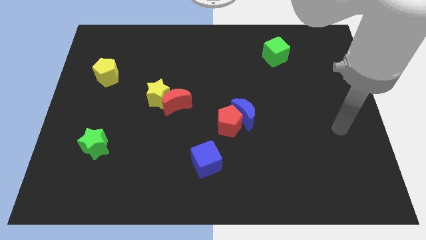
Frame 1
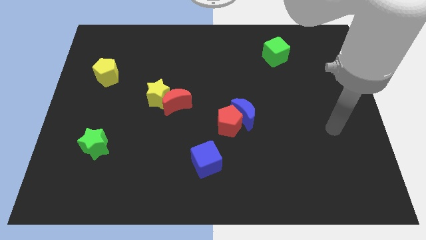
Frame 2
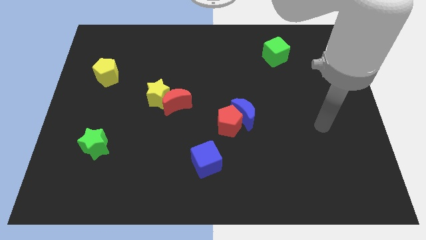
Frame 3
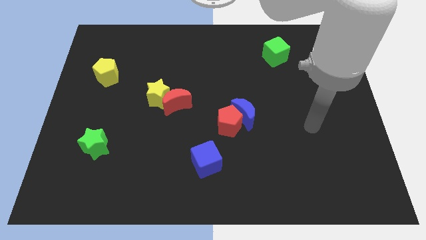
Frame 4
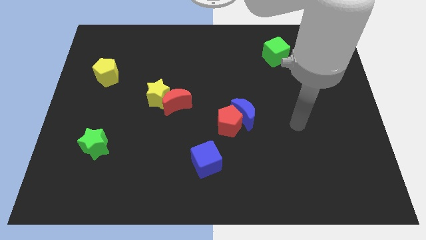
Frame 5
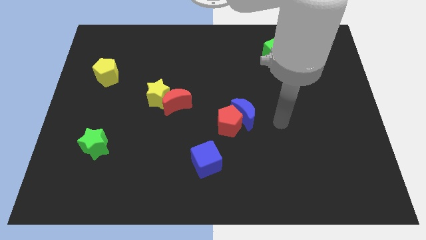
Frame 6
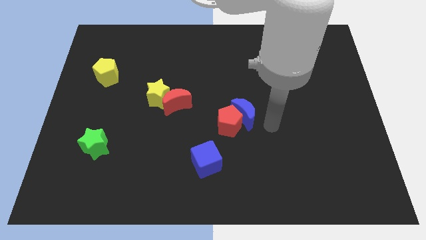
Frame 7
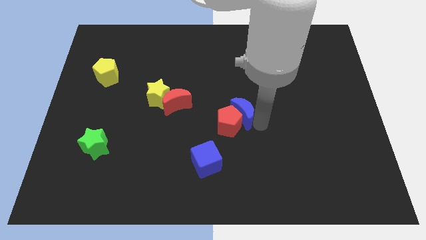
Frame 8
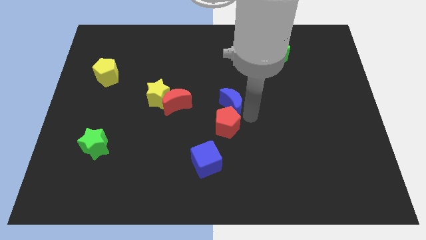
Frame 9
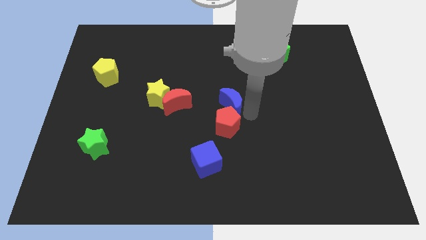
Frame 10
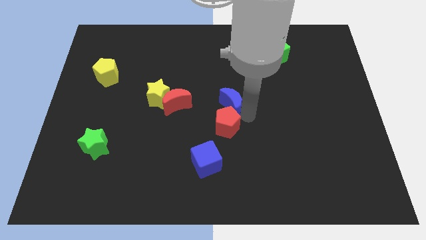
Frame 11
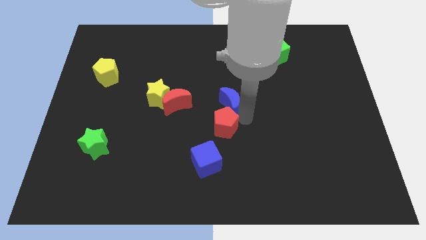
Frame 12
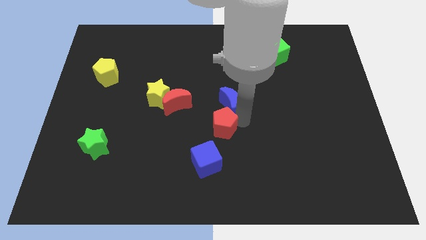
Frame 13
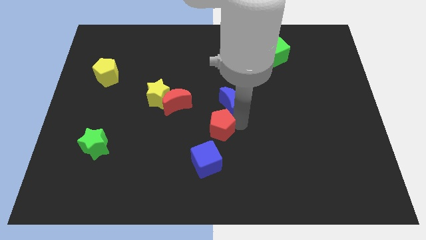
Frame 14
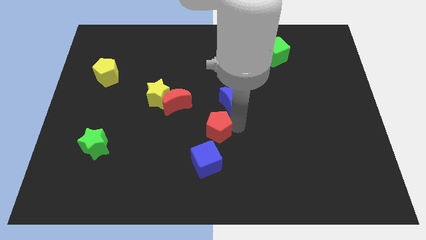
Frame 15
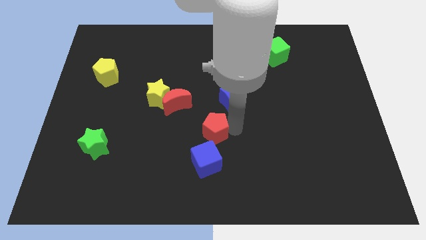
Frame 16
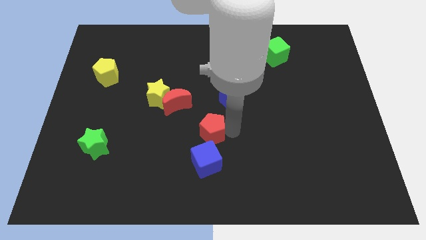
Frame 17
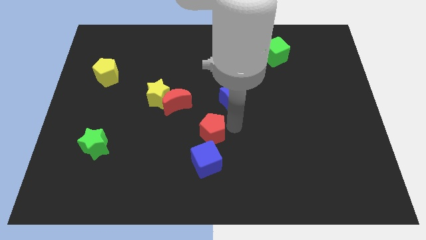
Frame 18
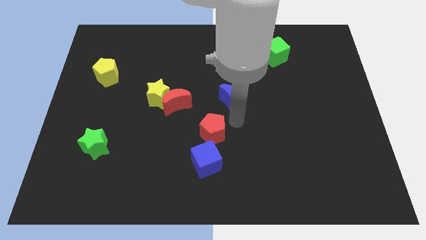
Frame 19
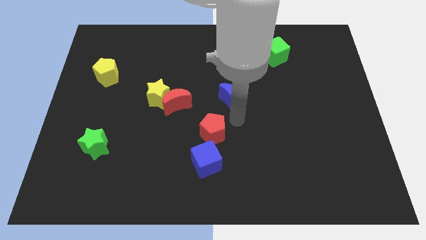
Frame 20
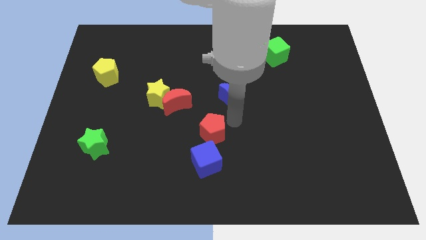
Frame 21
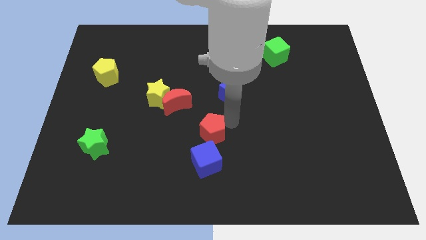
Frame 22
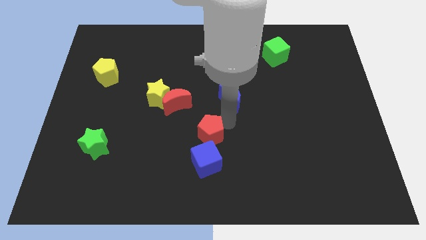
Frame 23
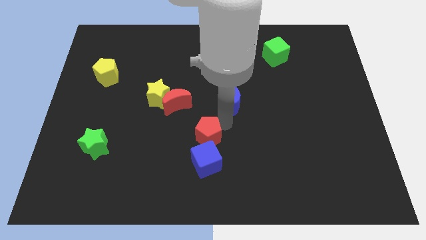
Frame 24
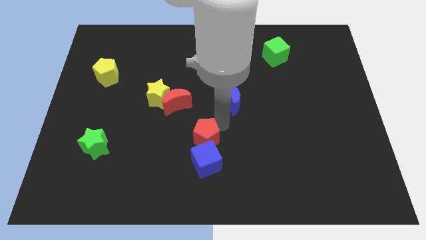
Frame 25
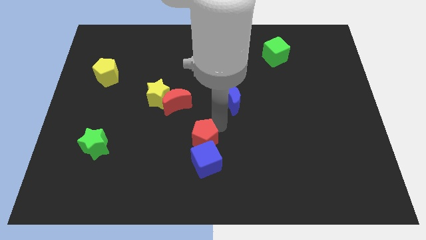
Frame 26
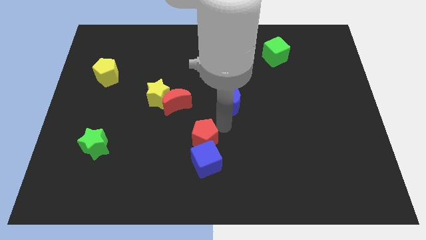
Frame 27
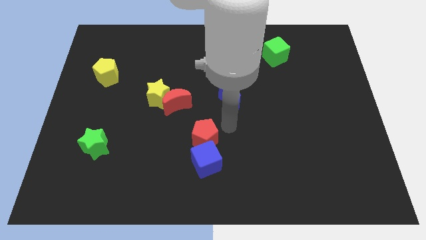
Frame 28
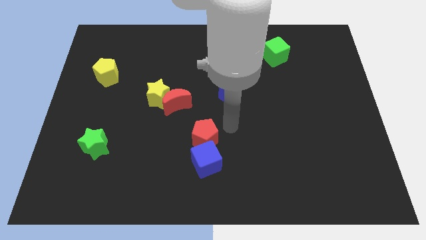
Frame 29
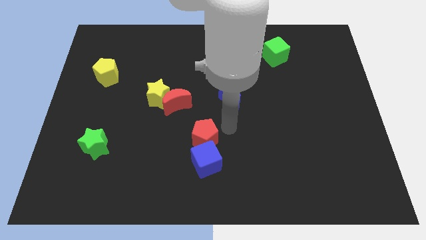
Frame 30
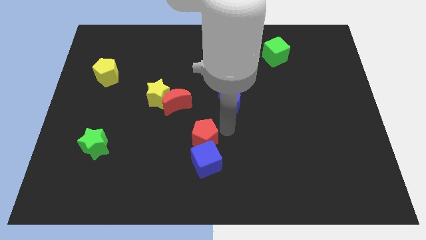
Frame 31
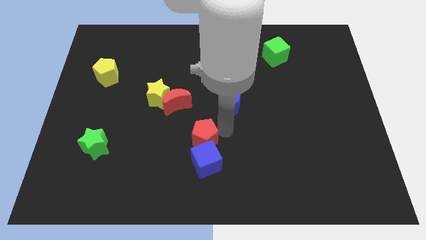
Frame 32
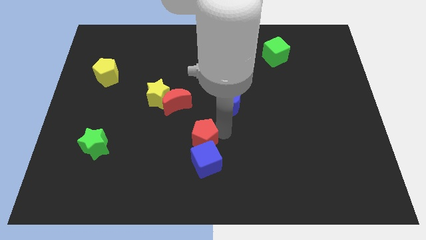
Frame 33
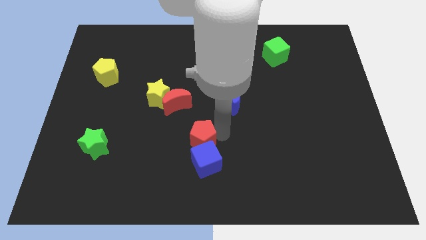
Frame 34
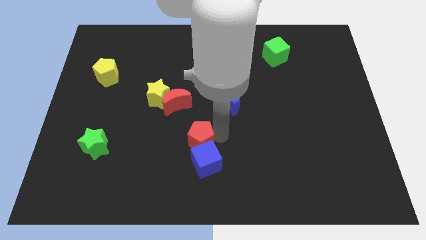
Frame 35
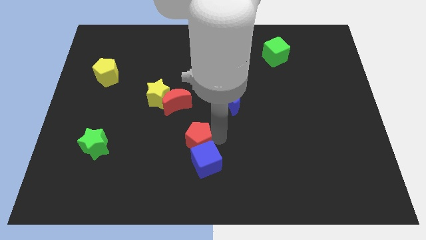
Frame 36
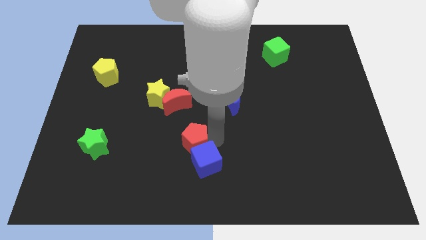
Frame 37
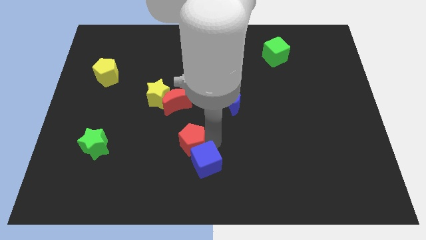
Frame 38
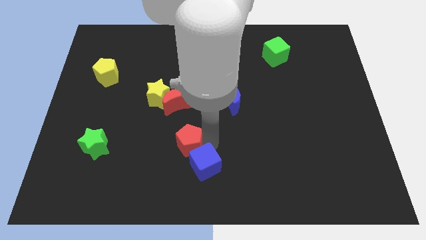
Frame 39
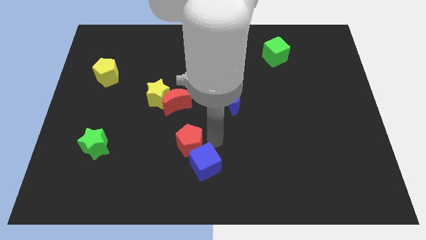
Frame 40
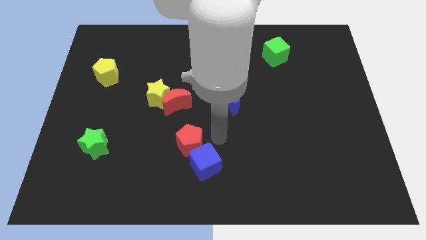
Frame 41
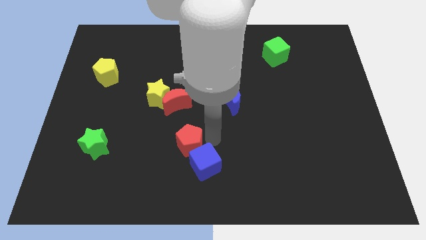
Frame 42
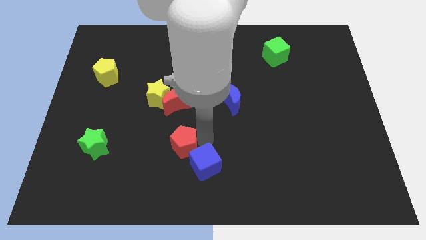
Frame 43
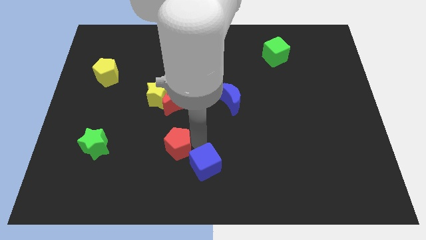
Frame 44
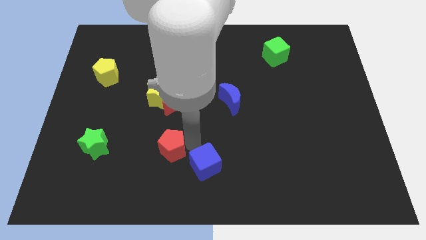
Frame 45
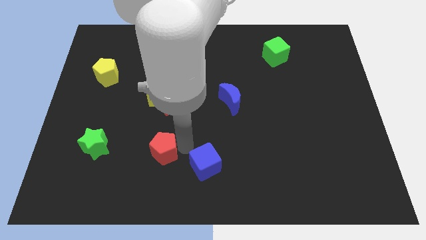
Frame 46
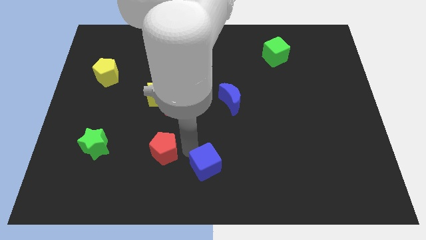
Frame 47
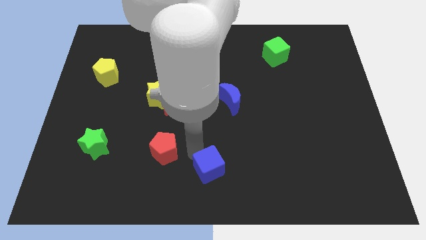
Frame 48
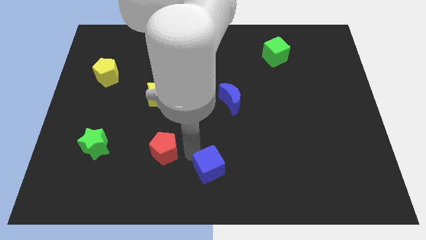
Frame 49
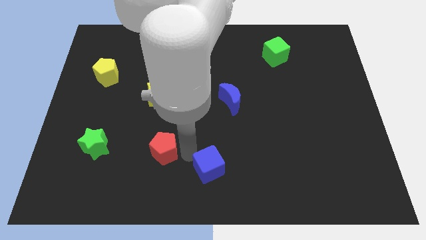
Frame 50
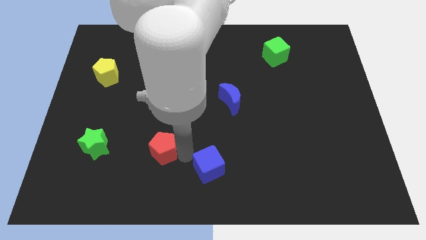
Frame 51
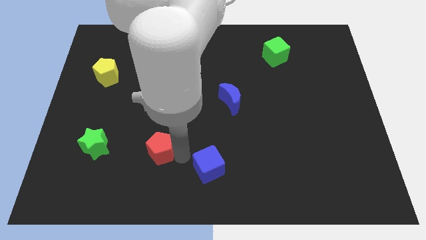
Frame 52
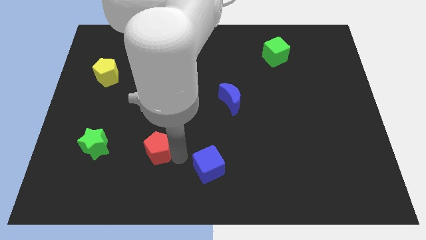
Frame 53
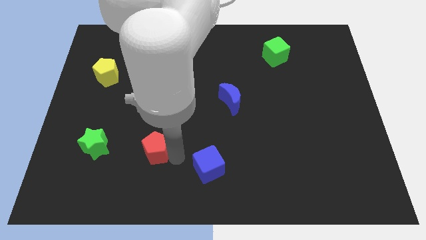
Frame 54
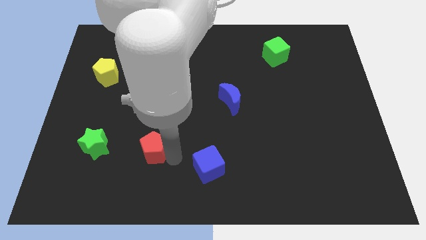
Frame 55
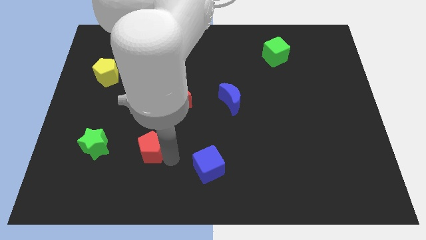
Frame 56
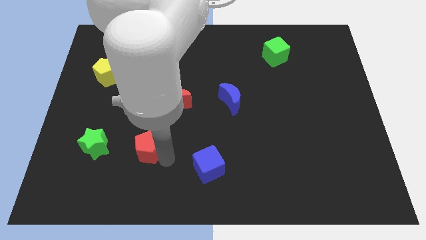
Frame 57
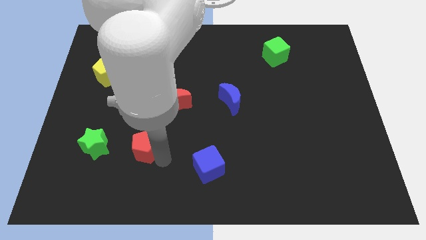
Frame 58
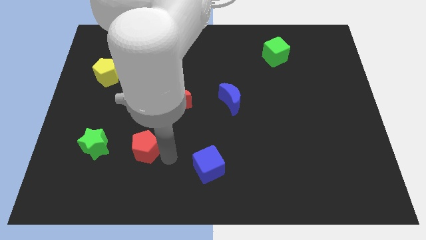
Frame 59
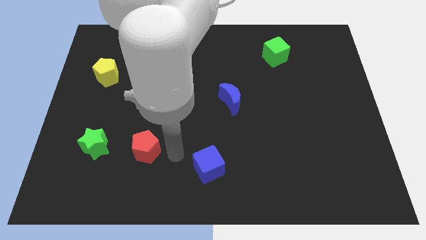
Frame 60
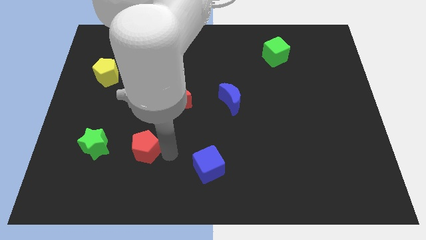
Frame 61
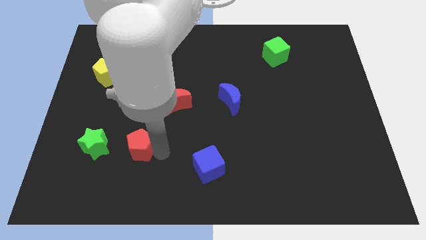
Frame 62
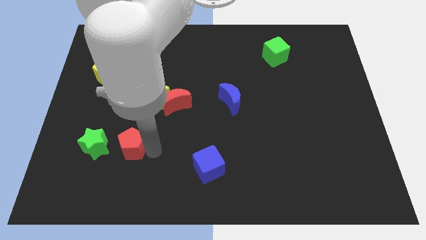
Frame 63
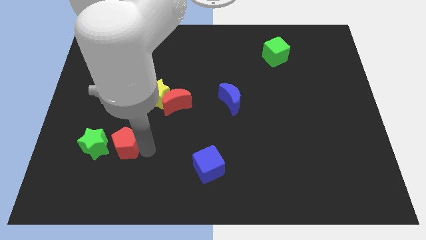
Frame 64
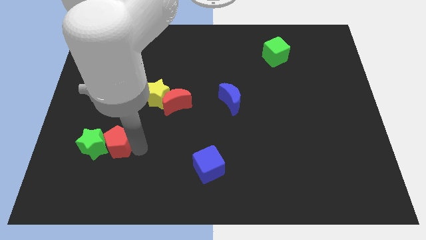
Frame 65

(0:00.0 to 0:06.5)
slide the red pentagon towards the green star

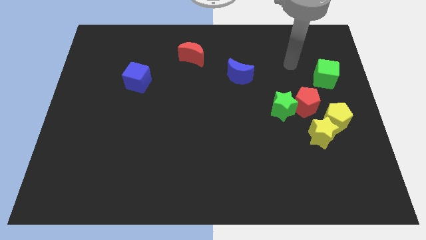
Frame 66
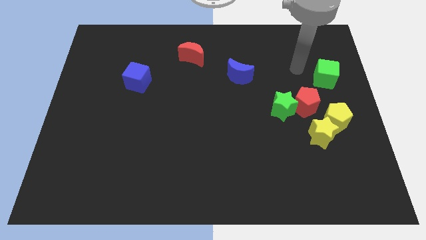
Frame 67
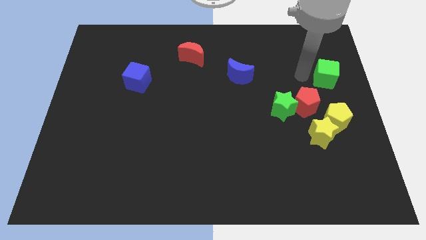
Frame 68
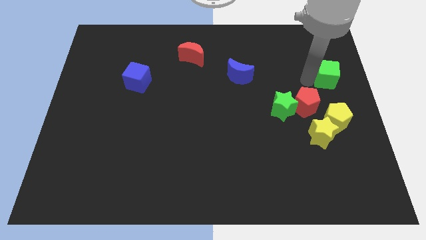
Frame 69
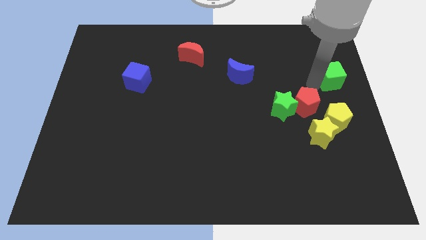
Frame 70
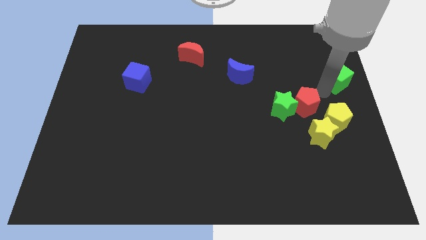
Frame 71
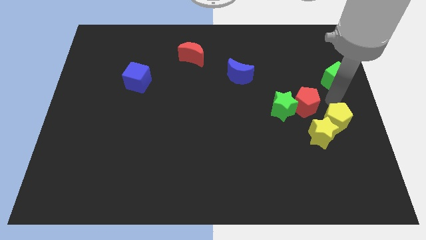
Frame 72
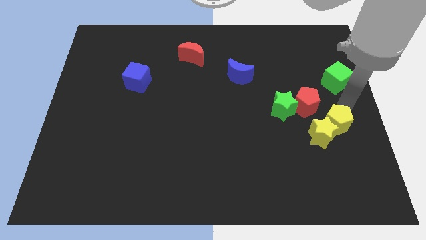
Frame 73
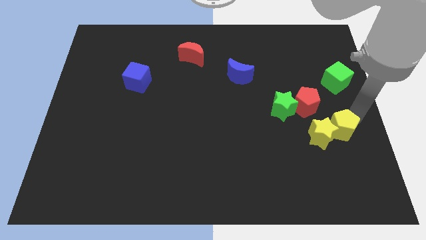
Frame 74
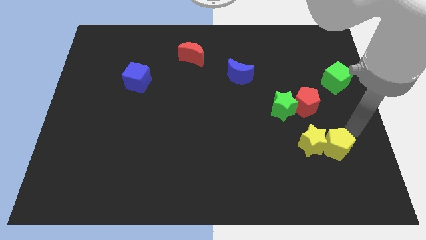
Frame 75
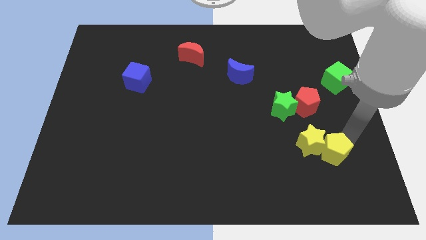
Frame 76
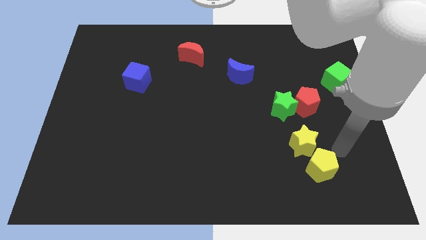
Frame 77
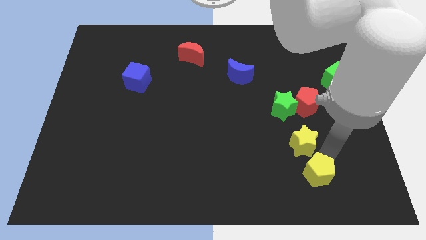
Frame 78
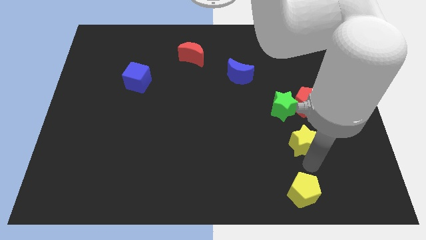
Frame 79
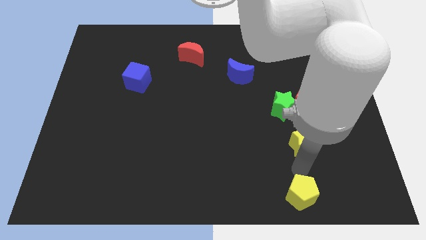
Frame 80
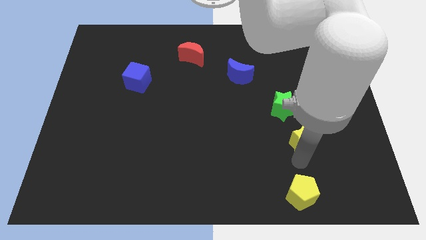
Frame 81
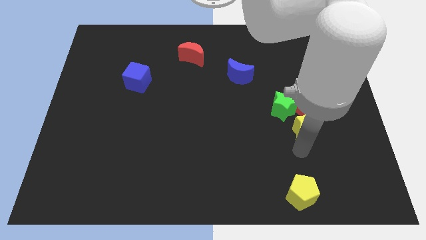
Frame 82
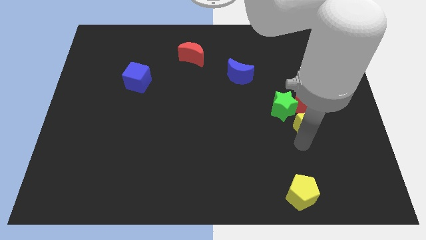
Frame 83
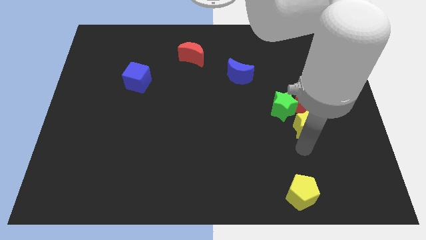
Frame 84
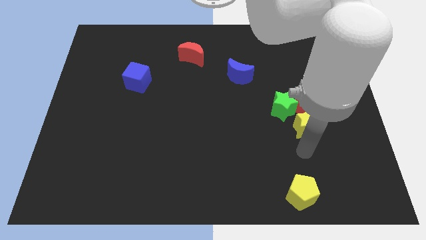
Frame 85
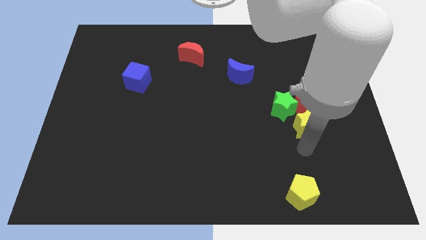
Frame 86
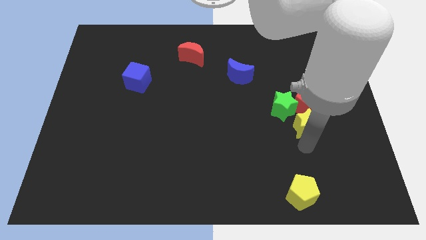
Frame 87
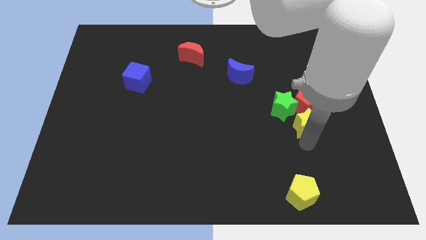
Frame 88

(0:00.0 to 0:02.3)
put the yellow star to the red pentagon
